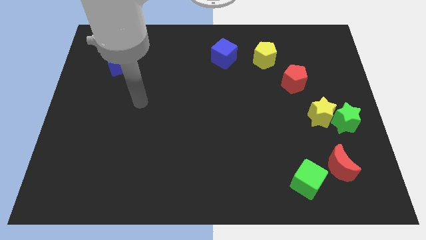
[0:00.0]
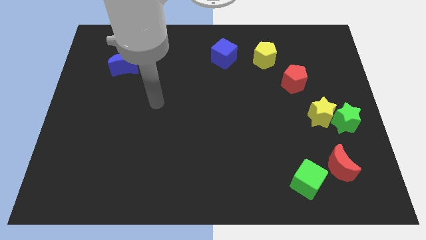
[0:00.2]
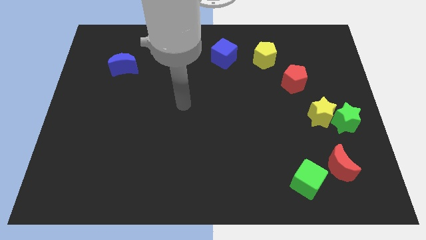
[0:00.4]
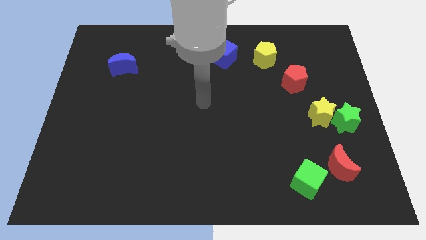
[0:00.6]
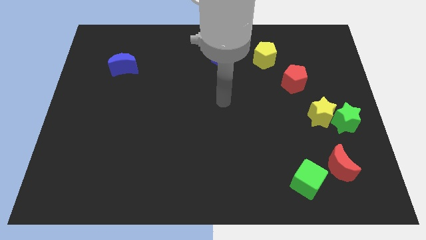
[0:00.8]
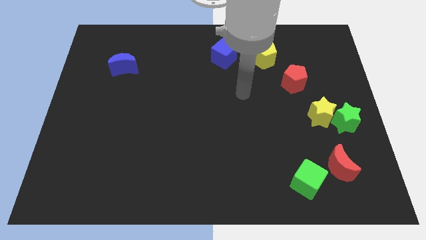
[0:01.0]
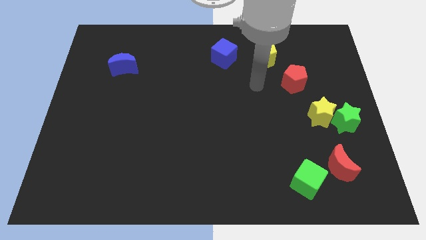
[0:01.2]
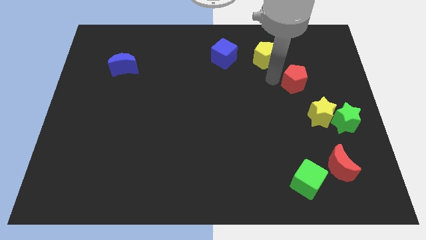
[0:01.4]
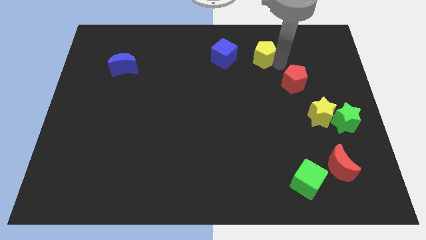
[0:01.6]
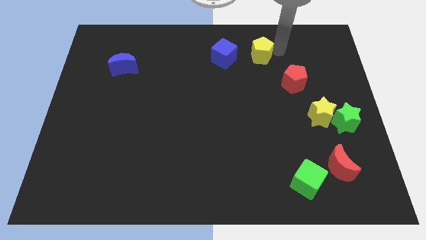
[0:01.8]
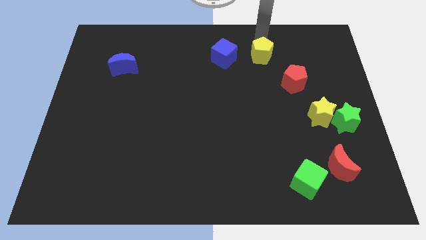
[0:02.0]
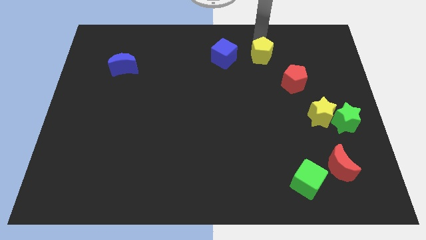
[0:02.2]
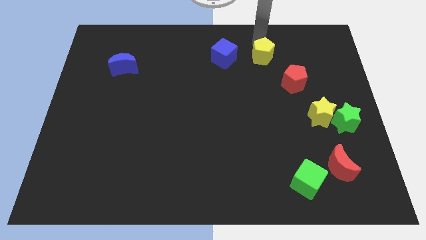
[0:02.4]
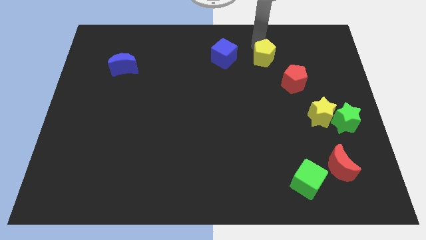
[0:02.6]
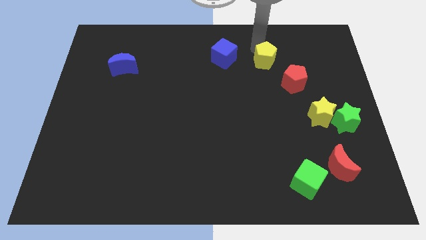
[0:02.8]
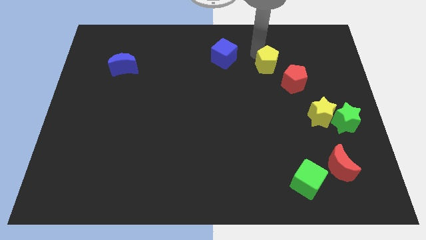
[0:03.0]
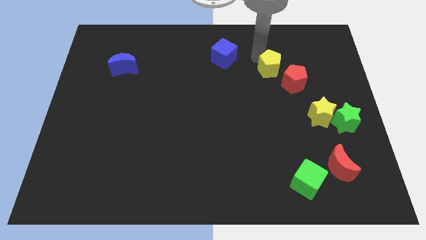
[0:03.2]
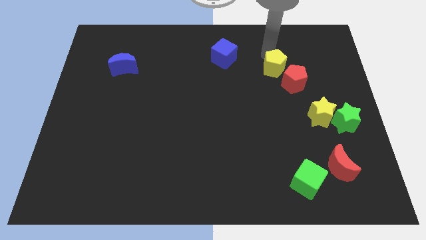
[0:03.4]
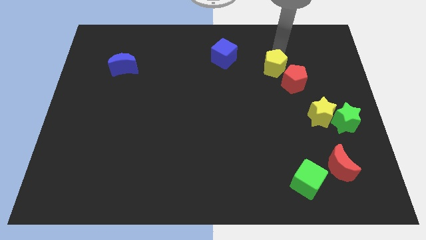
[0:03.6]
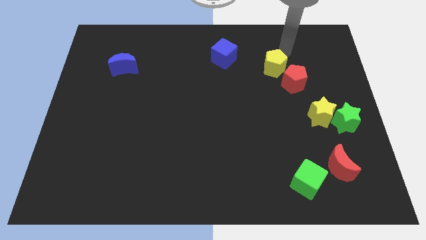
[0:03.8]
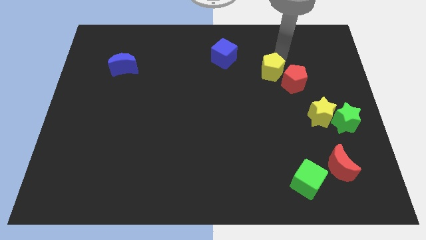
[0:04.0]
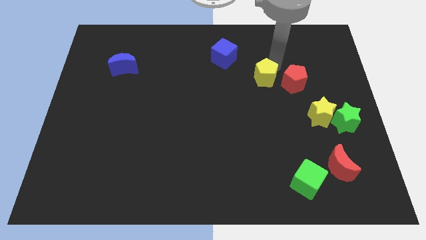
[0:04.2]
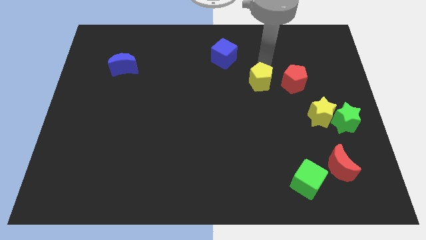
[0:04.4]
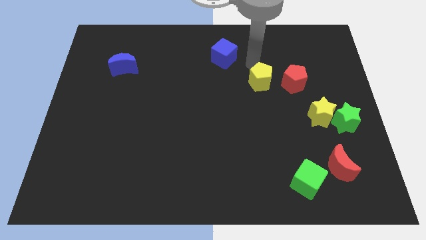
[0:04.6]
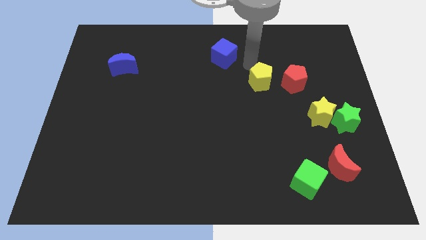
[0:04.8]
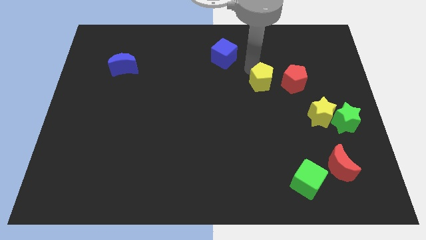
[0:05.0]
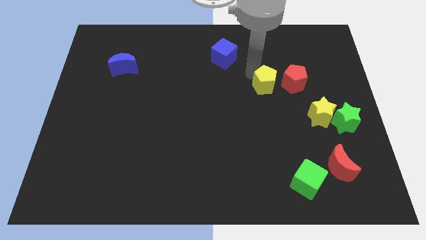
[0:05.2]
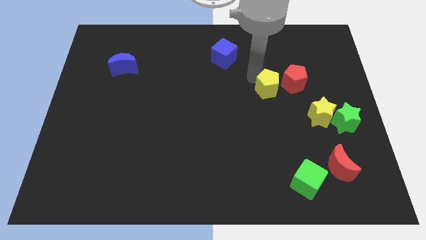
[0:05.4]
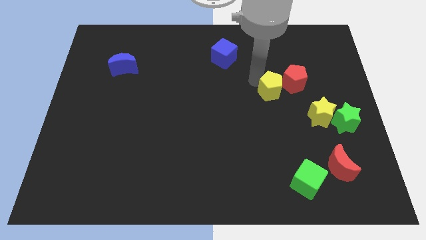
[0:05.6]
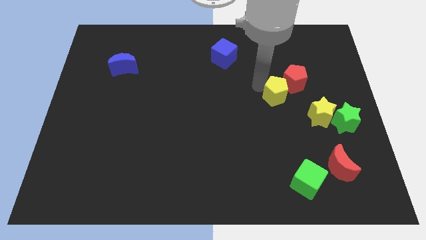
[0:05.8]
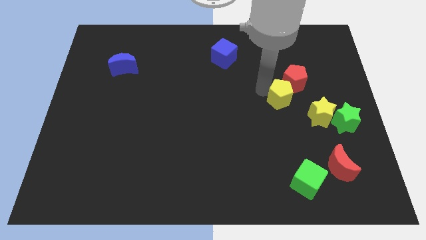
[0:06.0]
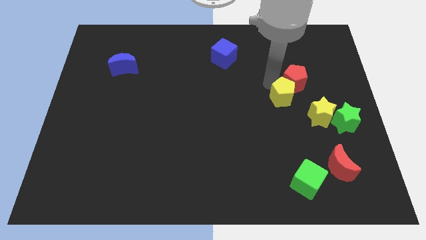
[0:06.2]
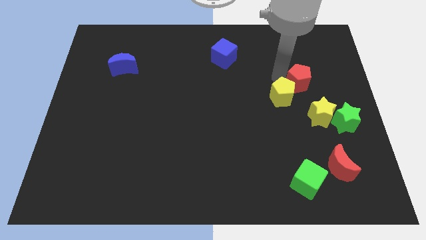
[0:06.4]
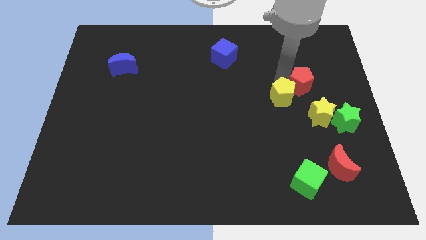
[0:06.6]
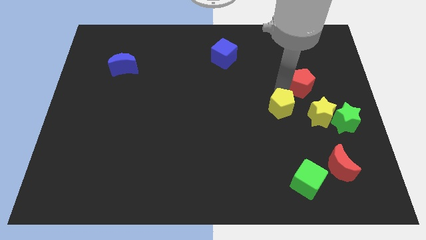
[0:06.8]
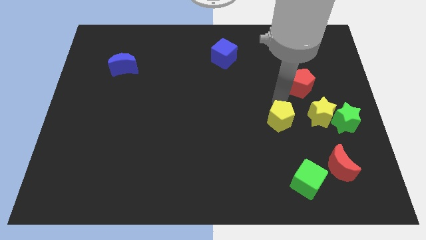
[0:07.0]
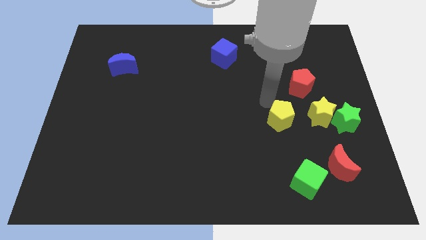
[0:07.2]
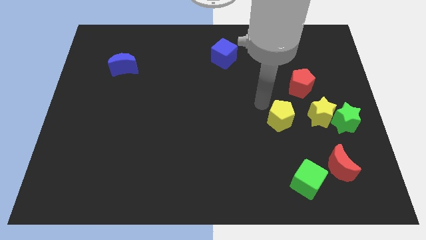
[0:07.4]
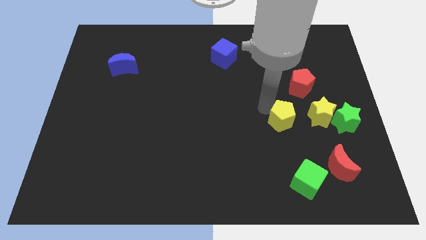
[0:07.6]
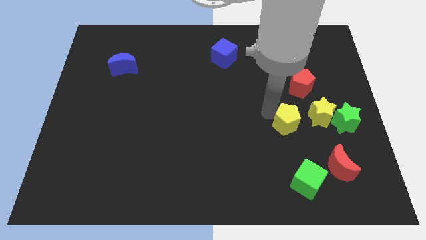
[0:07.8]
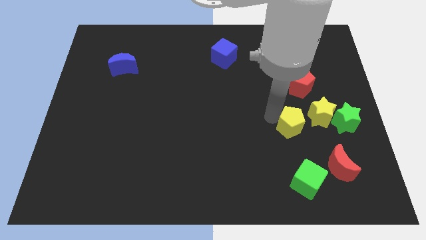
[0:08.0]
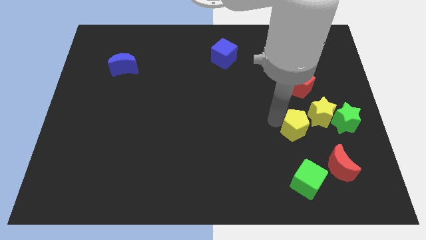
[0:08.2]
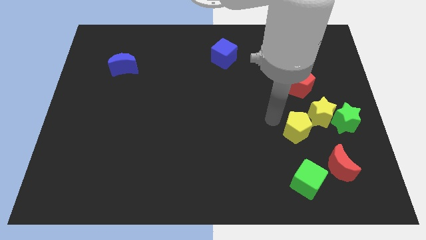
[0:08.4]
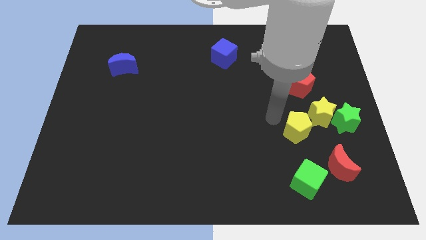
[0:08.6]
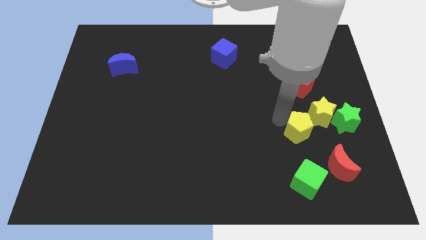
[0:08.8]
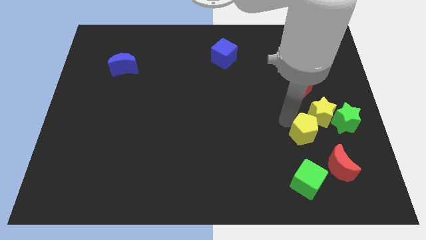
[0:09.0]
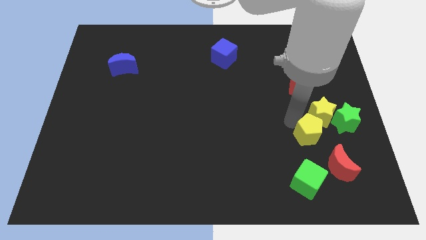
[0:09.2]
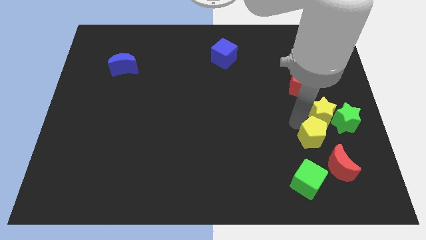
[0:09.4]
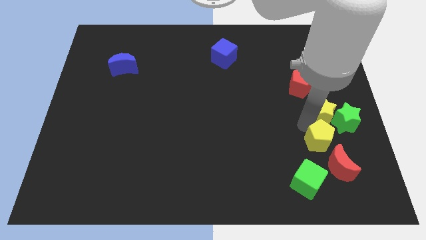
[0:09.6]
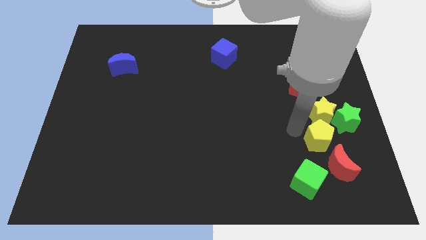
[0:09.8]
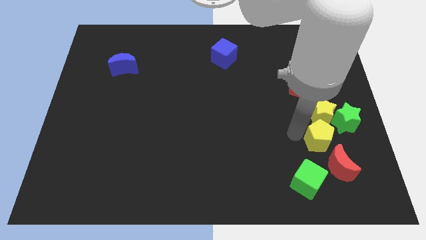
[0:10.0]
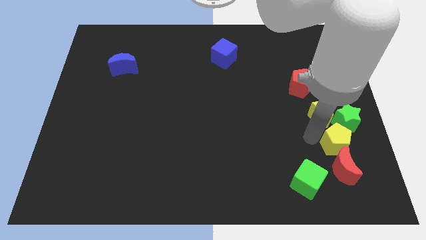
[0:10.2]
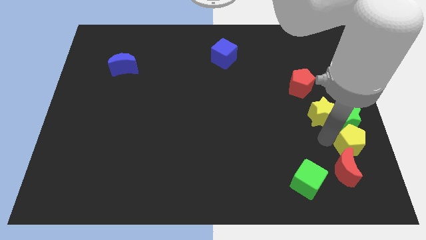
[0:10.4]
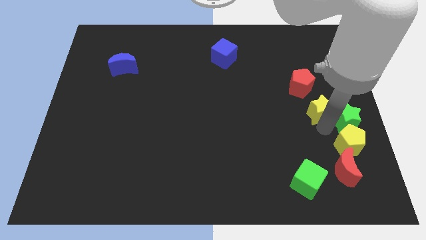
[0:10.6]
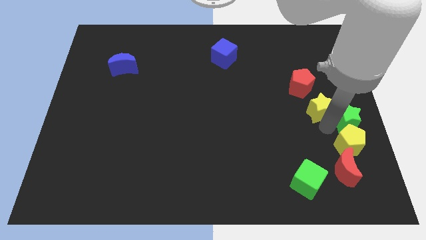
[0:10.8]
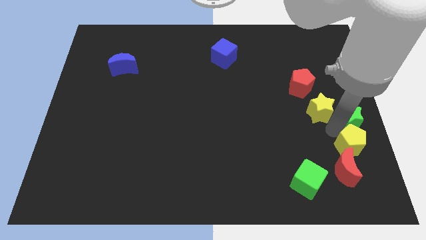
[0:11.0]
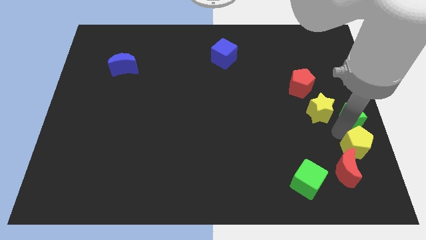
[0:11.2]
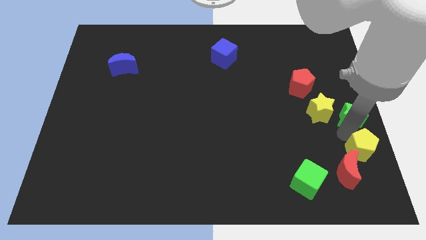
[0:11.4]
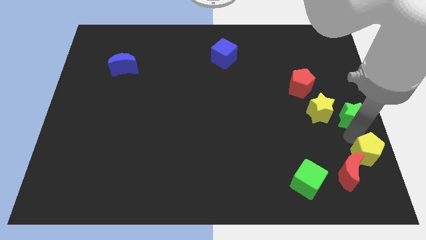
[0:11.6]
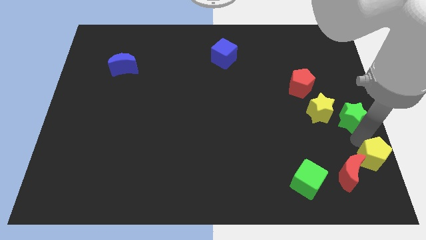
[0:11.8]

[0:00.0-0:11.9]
move the yellow pentagon to the bottom right
